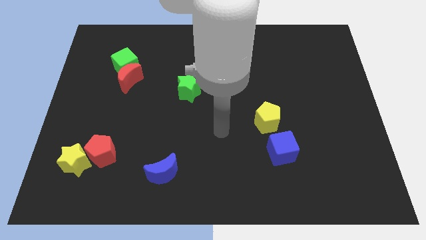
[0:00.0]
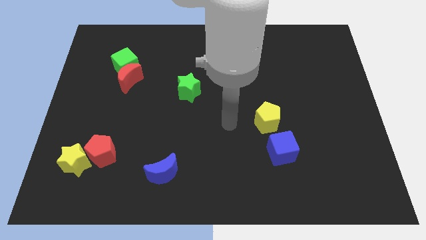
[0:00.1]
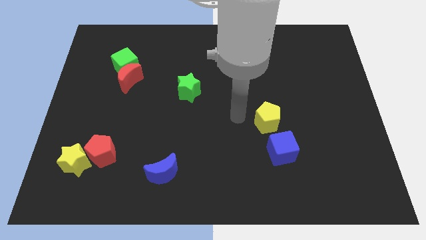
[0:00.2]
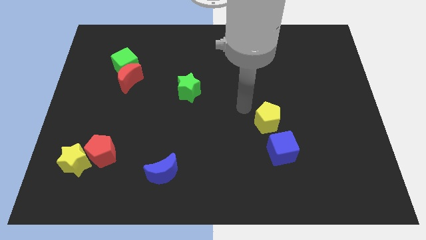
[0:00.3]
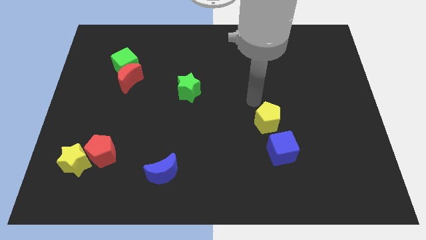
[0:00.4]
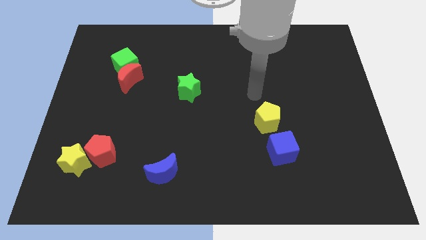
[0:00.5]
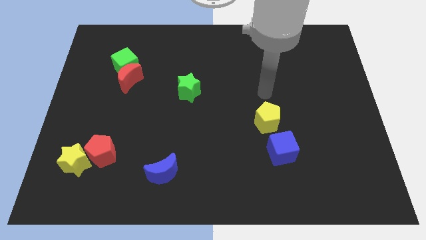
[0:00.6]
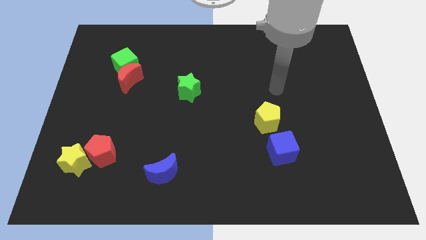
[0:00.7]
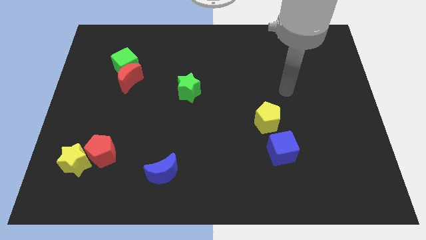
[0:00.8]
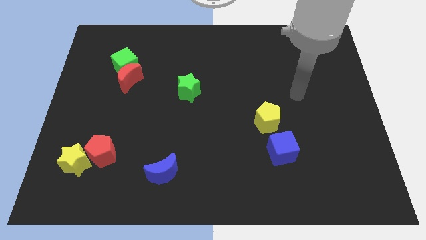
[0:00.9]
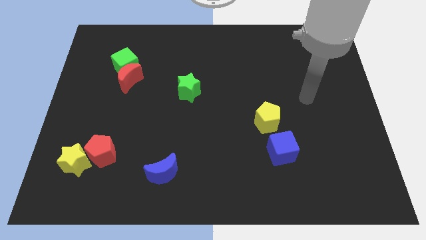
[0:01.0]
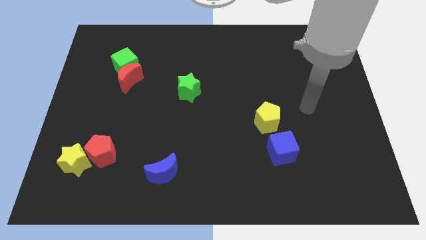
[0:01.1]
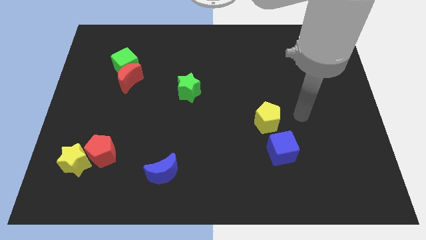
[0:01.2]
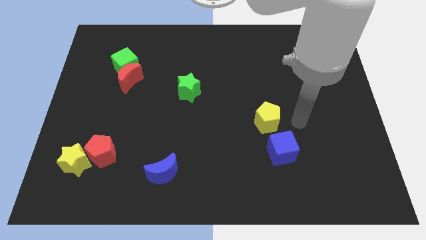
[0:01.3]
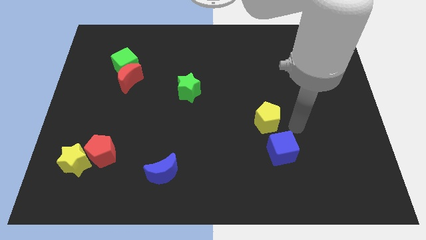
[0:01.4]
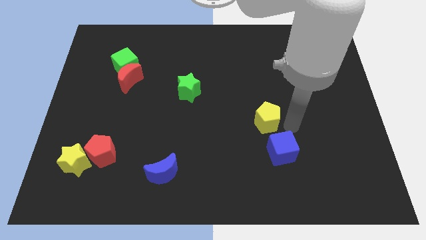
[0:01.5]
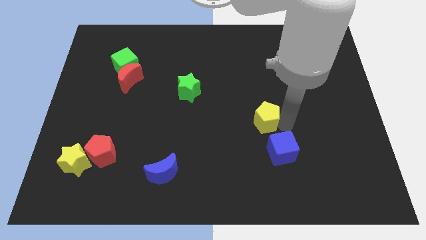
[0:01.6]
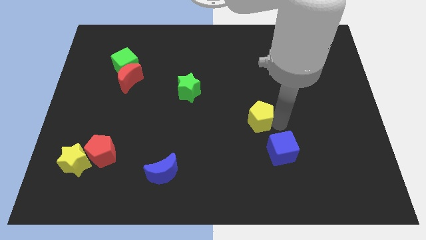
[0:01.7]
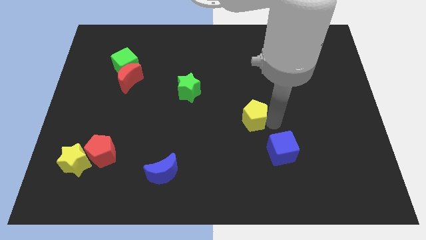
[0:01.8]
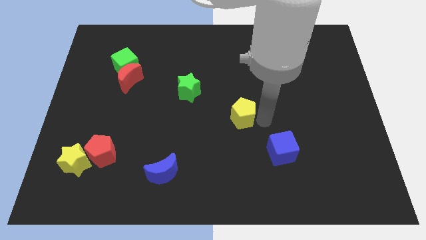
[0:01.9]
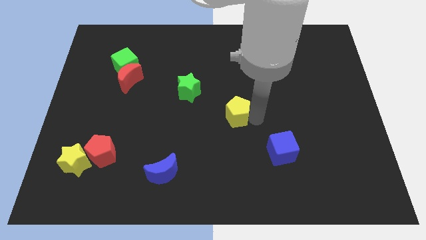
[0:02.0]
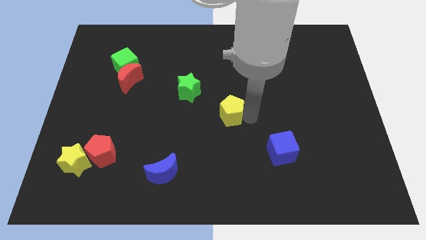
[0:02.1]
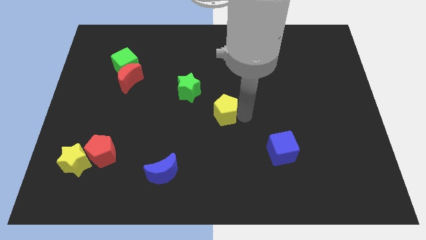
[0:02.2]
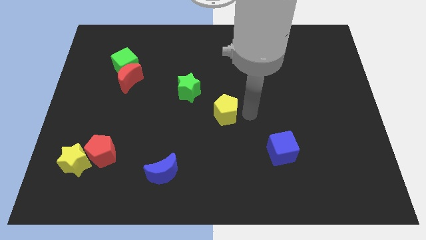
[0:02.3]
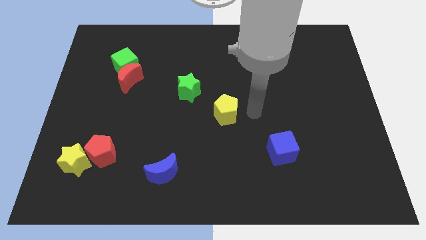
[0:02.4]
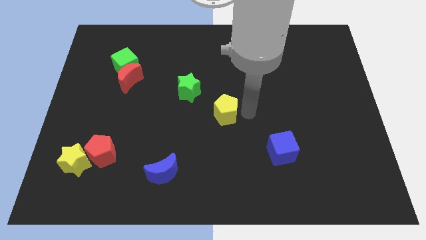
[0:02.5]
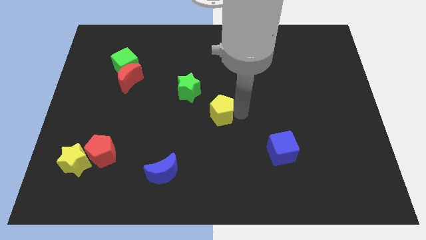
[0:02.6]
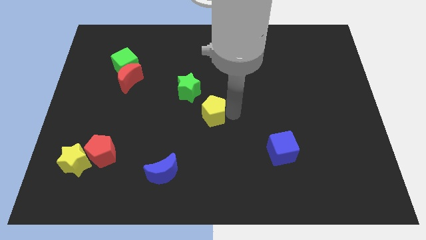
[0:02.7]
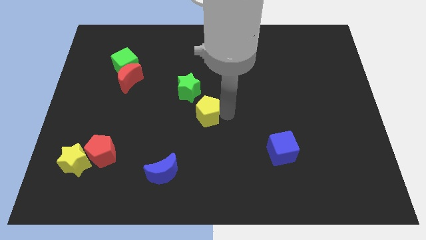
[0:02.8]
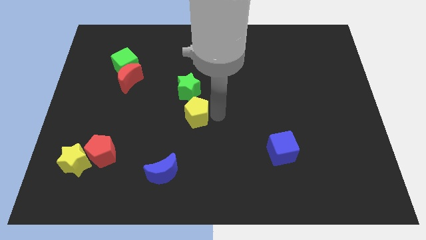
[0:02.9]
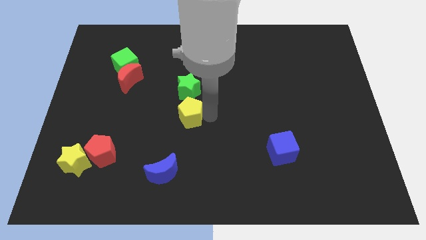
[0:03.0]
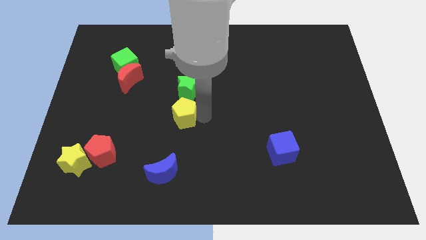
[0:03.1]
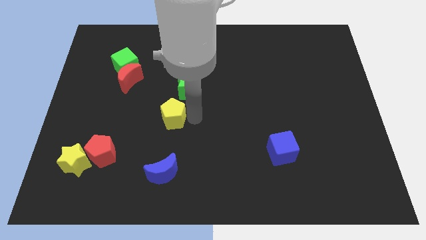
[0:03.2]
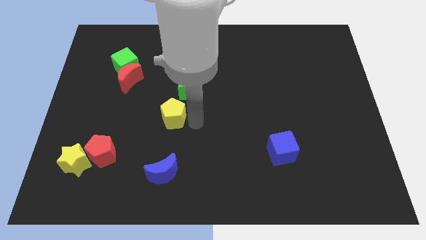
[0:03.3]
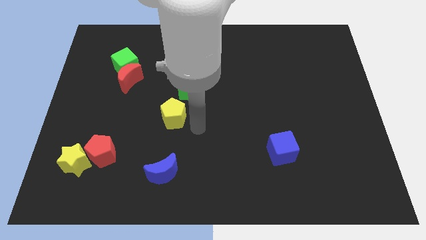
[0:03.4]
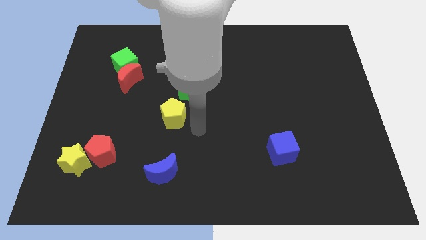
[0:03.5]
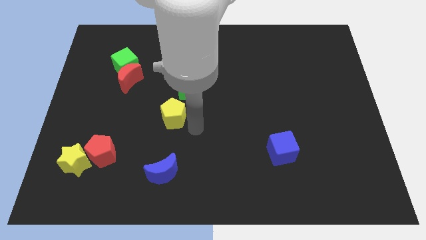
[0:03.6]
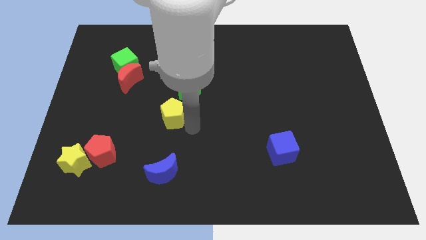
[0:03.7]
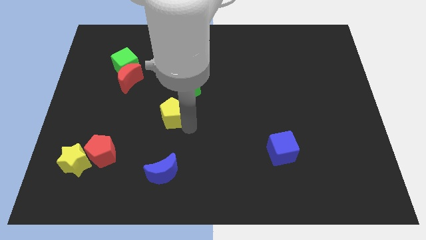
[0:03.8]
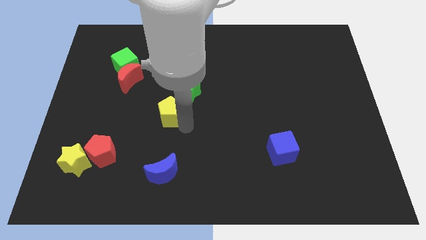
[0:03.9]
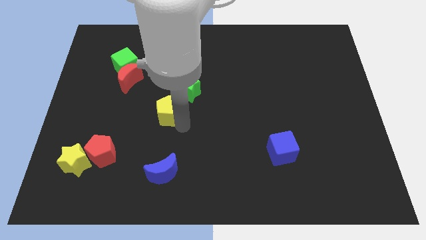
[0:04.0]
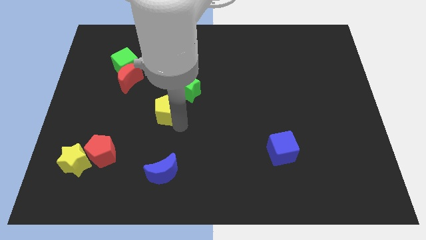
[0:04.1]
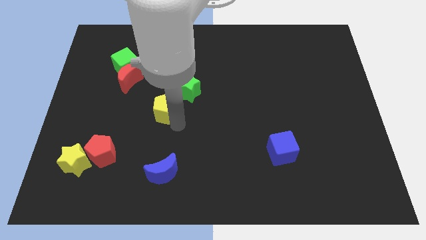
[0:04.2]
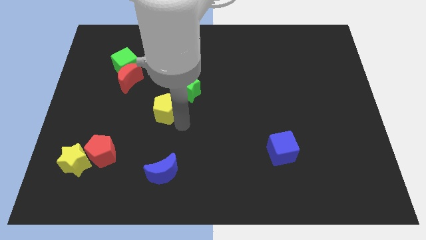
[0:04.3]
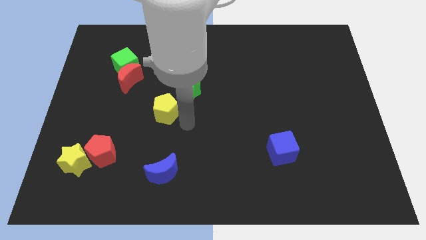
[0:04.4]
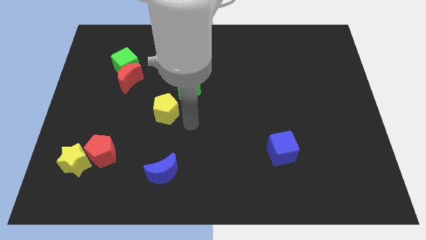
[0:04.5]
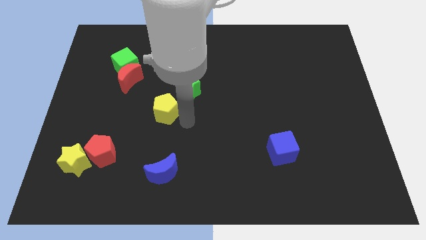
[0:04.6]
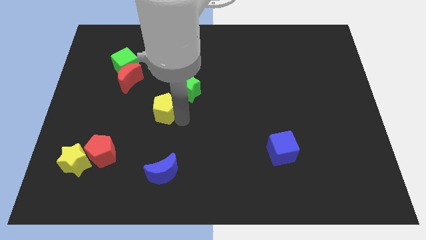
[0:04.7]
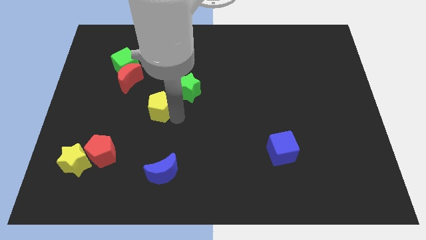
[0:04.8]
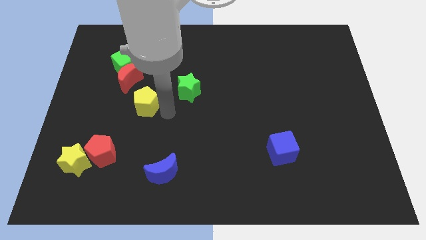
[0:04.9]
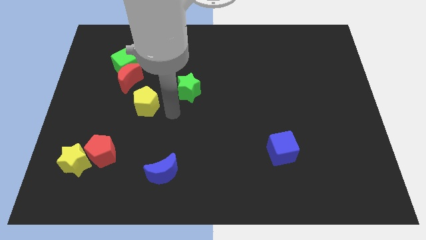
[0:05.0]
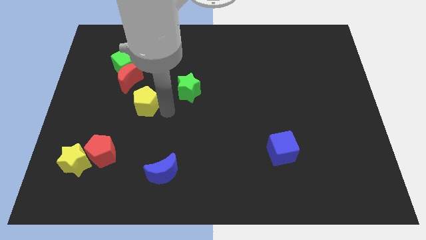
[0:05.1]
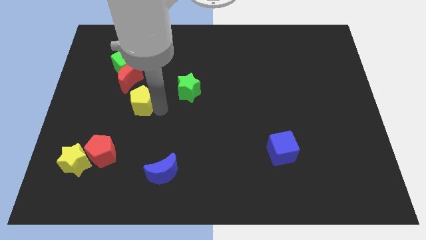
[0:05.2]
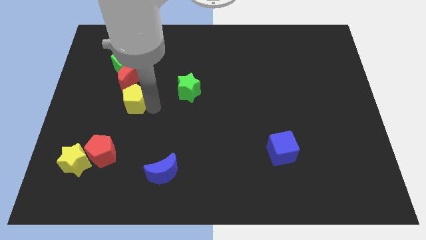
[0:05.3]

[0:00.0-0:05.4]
push the yellow pentagon below the green cube

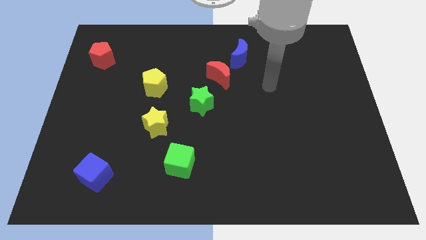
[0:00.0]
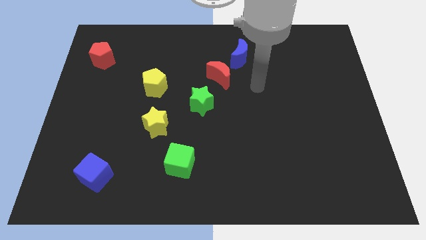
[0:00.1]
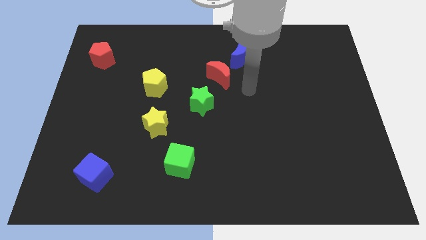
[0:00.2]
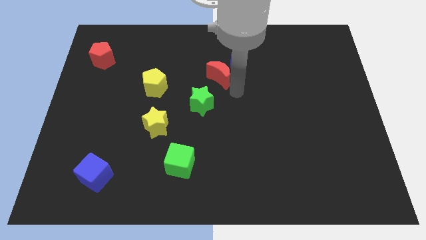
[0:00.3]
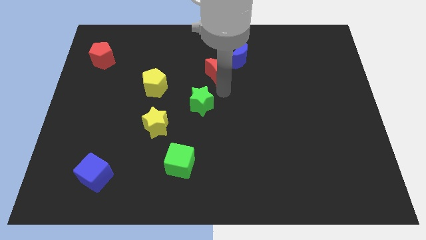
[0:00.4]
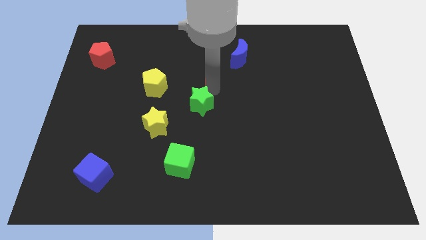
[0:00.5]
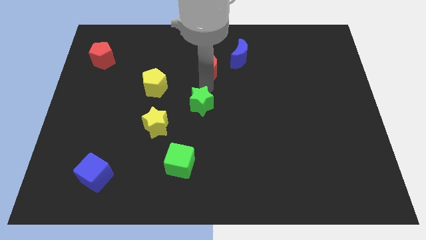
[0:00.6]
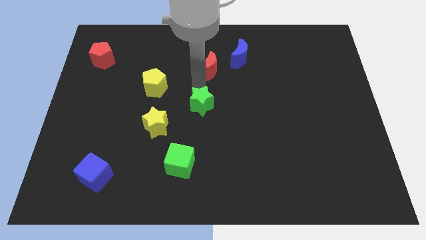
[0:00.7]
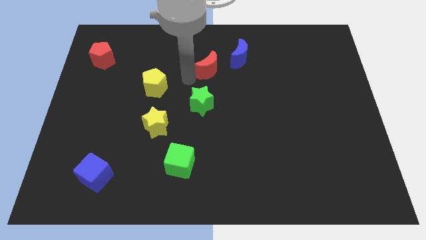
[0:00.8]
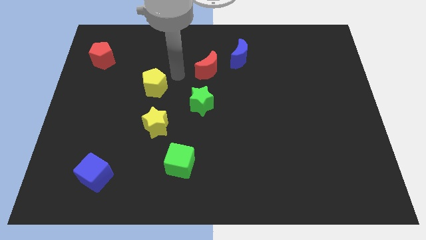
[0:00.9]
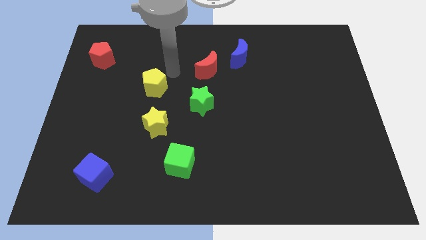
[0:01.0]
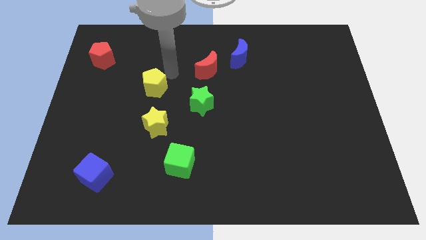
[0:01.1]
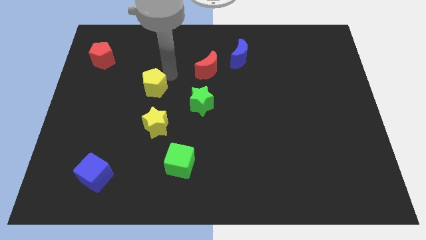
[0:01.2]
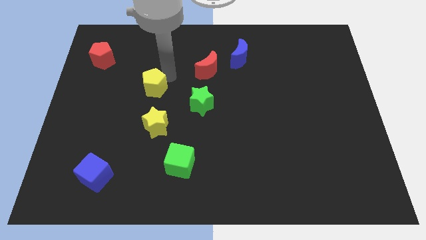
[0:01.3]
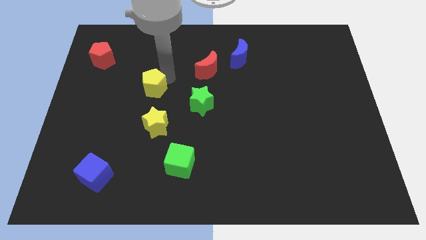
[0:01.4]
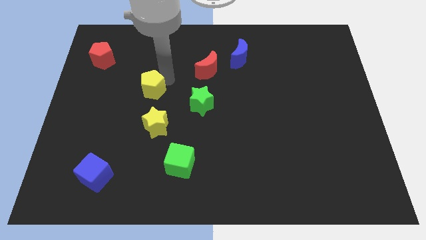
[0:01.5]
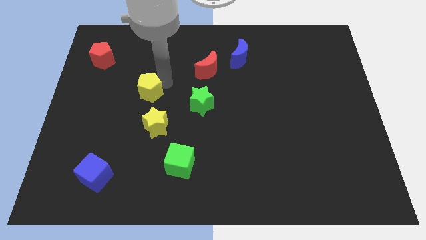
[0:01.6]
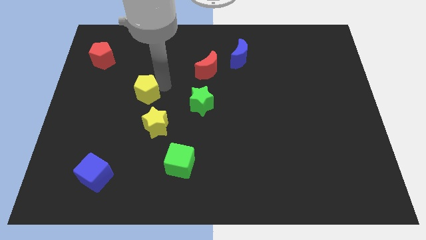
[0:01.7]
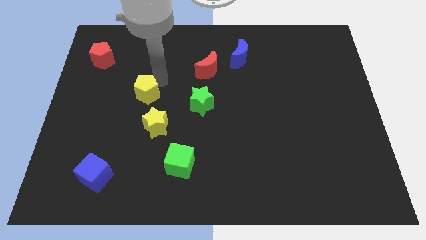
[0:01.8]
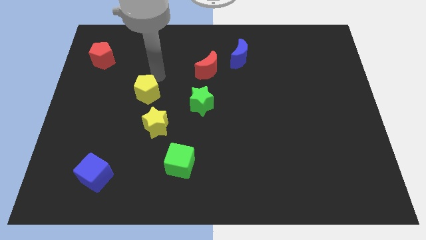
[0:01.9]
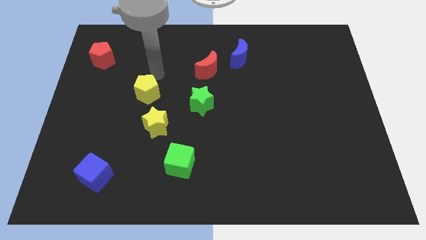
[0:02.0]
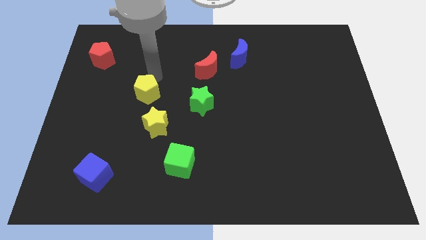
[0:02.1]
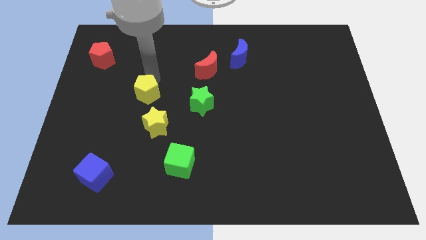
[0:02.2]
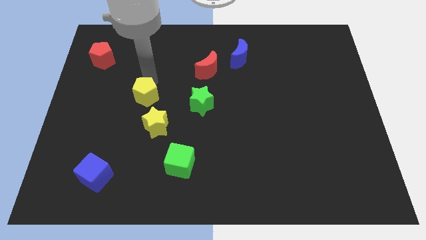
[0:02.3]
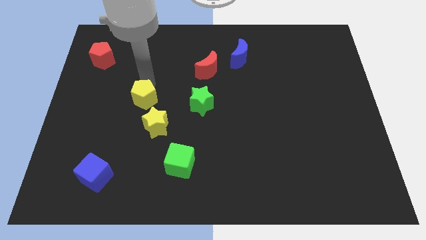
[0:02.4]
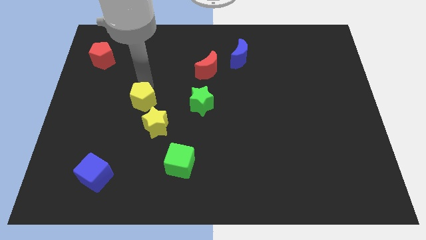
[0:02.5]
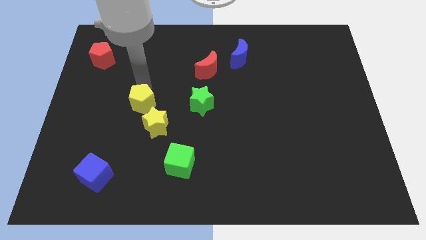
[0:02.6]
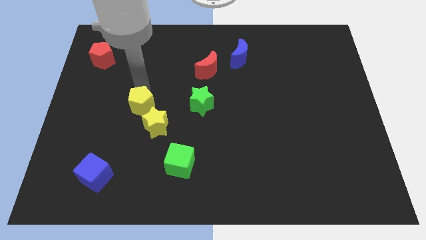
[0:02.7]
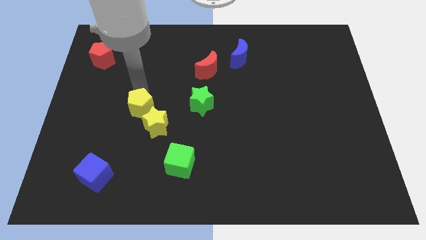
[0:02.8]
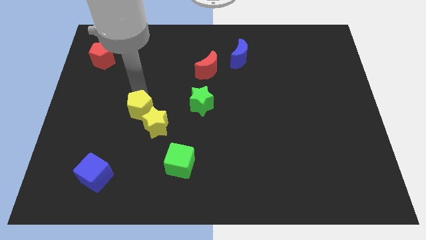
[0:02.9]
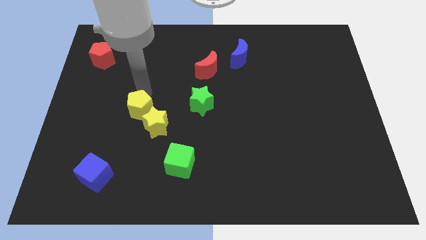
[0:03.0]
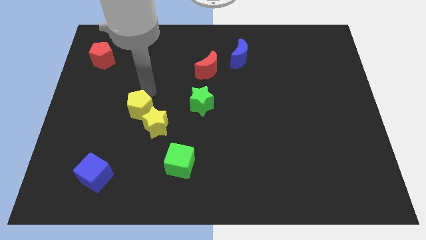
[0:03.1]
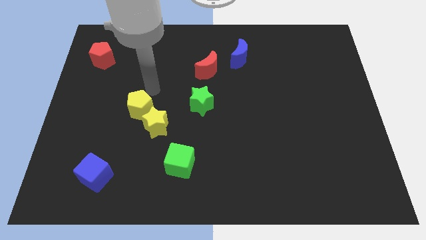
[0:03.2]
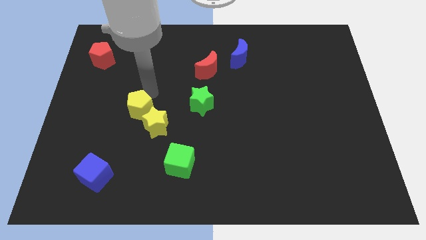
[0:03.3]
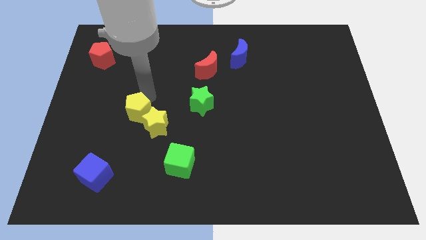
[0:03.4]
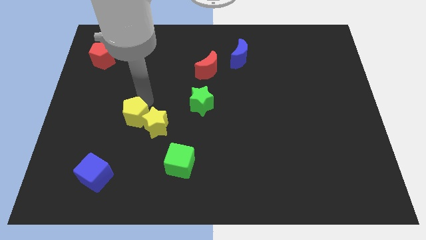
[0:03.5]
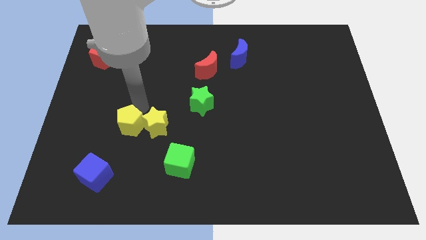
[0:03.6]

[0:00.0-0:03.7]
slide the yellow pentagon to the bottom left side of the yellow star
